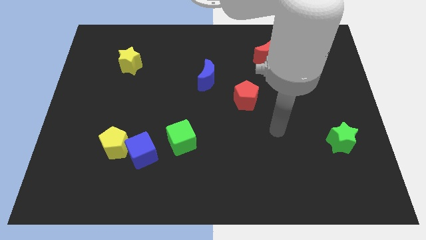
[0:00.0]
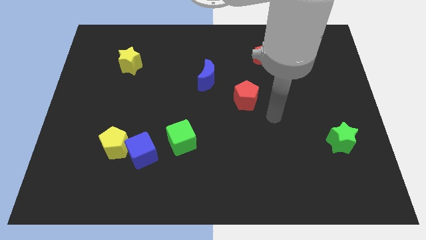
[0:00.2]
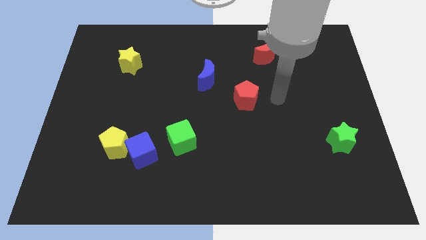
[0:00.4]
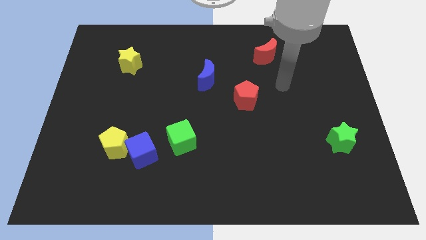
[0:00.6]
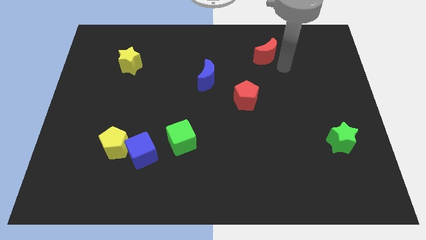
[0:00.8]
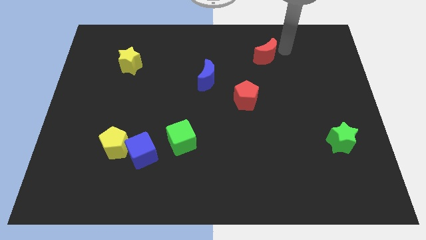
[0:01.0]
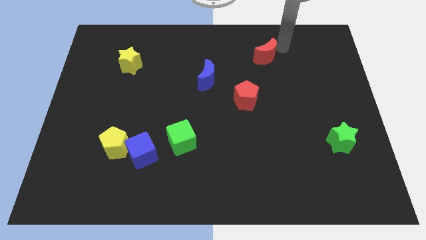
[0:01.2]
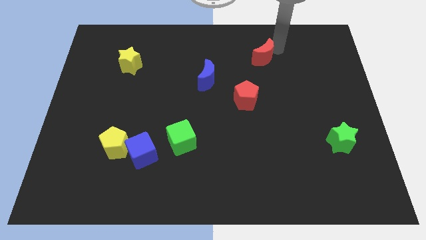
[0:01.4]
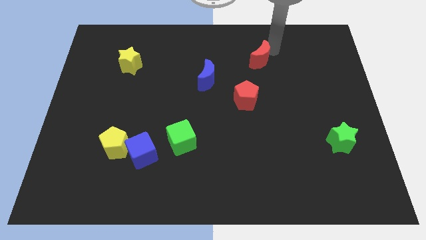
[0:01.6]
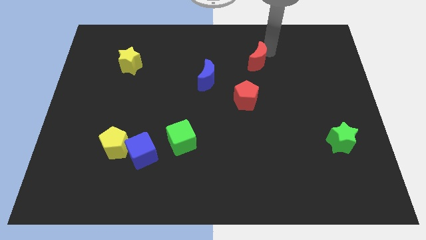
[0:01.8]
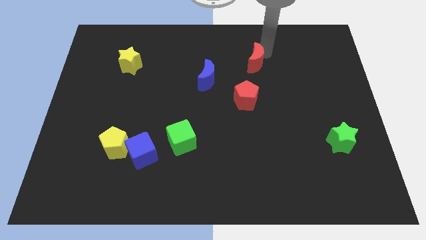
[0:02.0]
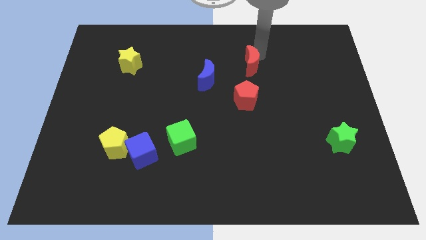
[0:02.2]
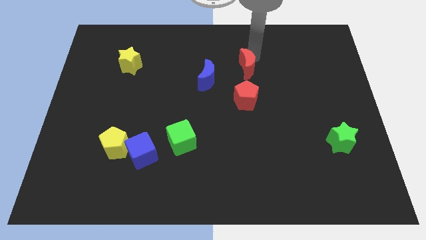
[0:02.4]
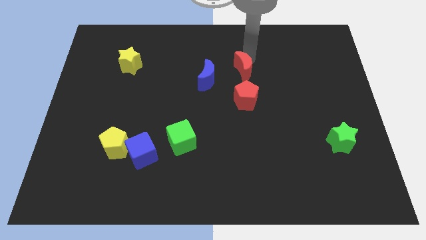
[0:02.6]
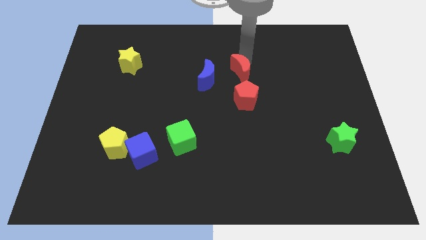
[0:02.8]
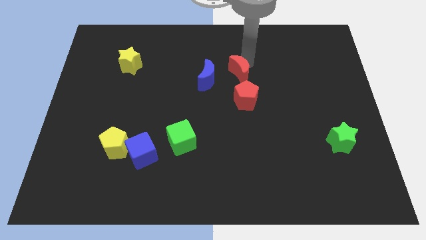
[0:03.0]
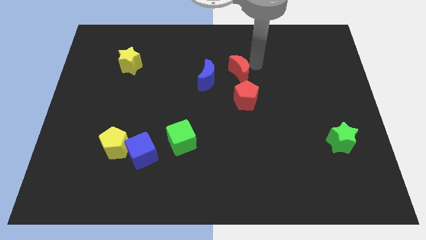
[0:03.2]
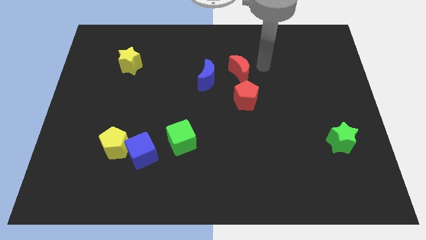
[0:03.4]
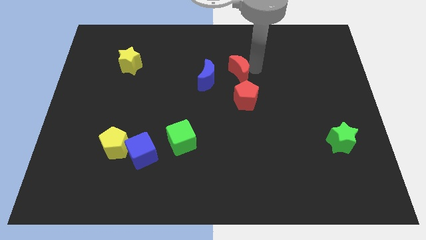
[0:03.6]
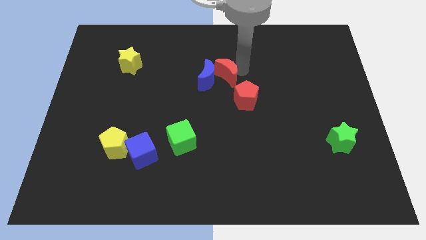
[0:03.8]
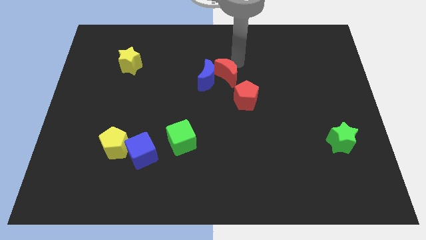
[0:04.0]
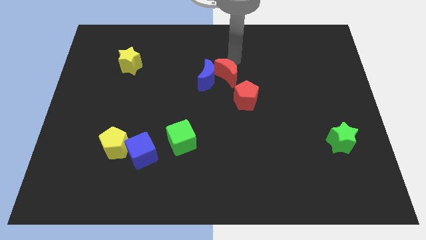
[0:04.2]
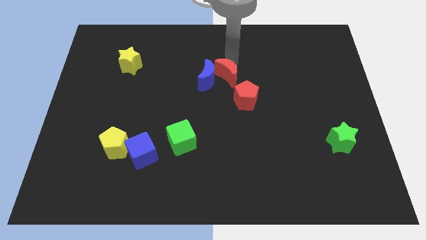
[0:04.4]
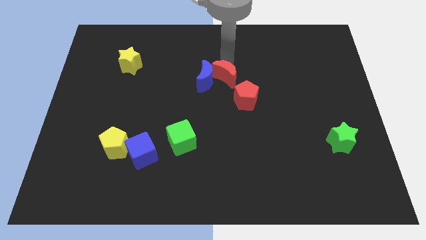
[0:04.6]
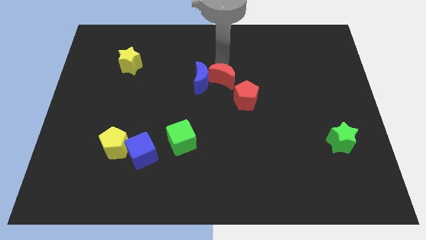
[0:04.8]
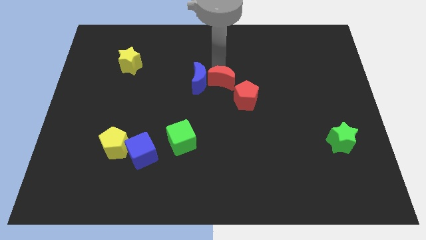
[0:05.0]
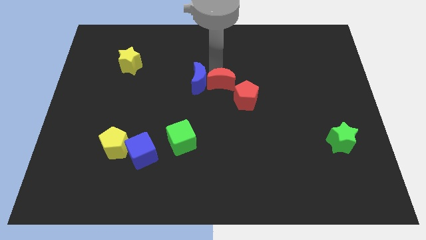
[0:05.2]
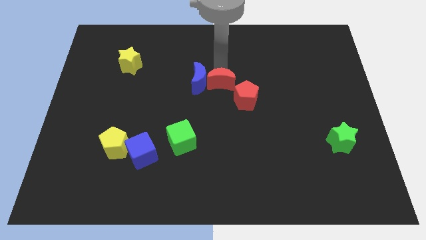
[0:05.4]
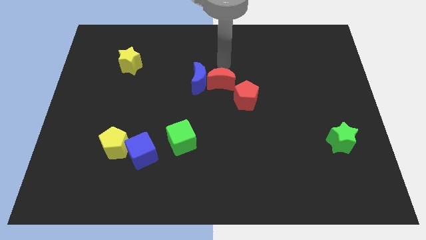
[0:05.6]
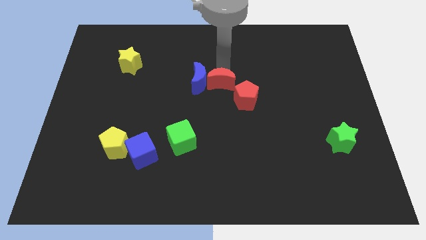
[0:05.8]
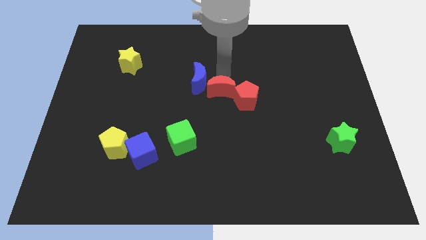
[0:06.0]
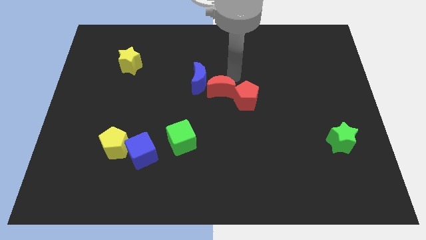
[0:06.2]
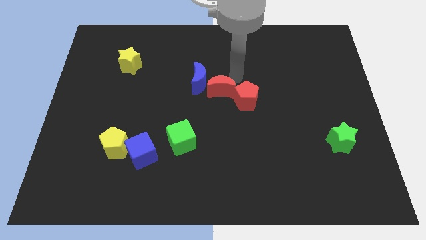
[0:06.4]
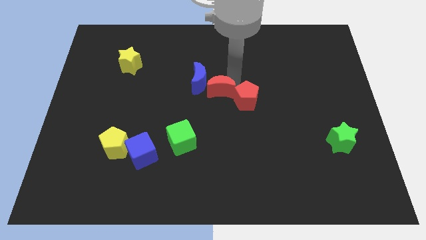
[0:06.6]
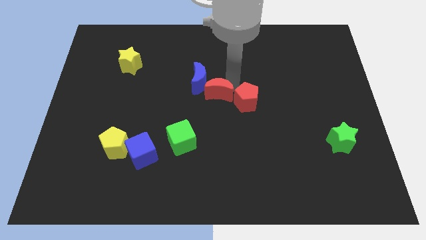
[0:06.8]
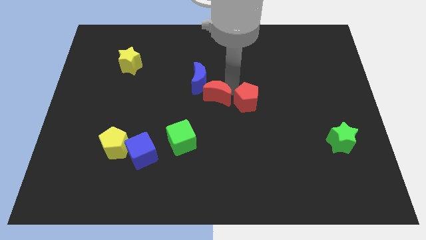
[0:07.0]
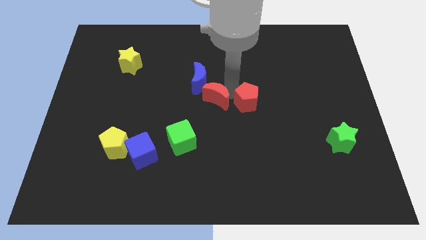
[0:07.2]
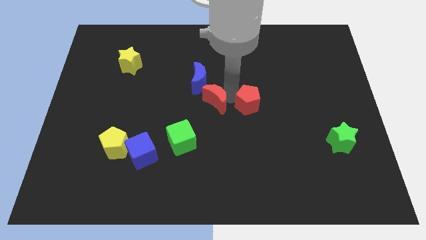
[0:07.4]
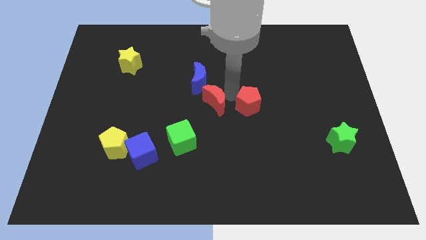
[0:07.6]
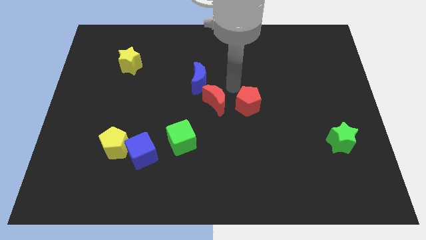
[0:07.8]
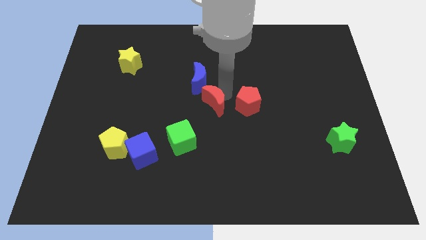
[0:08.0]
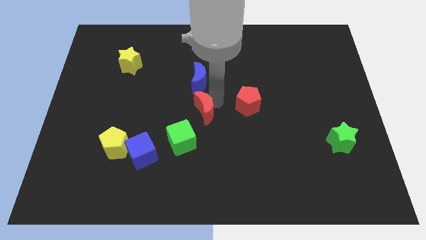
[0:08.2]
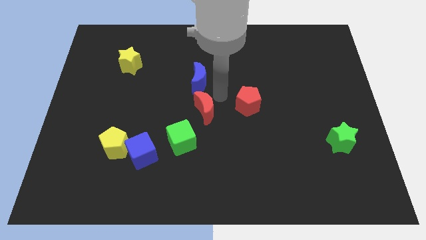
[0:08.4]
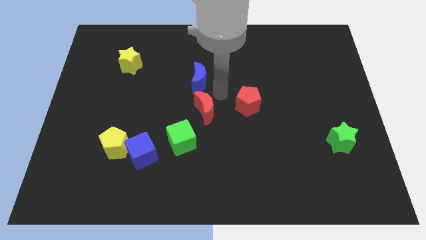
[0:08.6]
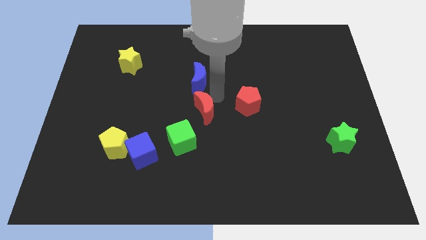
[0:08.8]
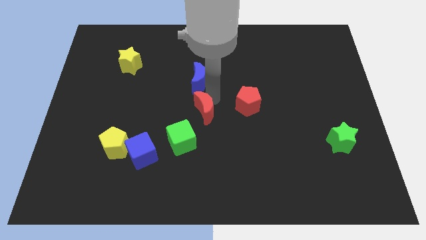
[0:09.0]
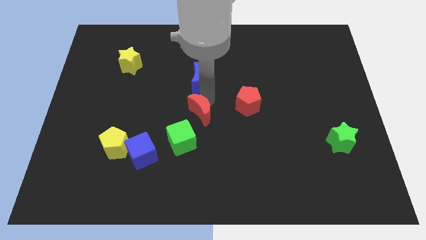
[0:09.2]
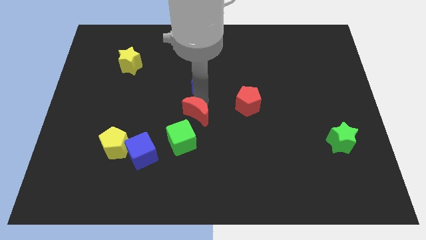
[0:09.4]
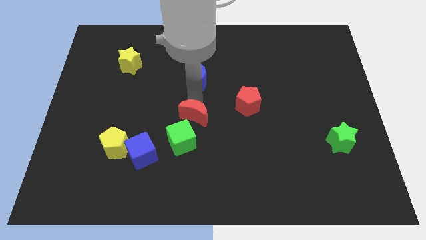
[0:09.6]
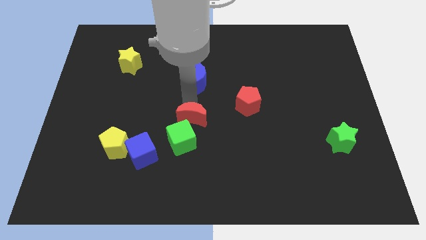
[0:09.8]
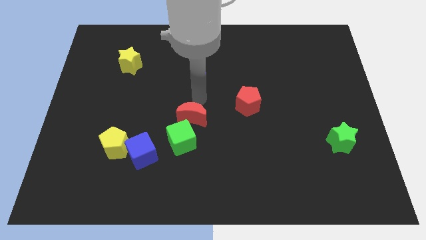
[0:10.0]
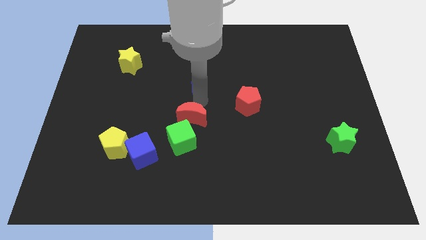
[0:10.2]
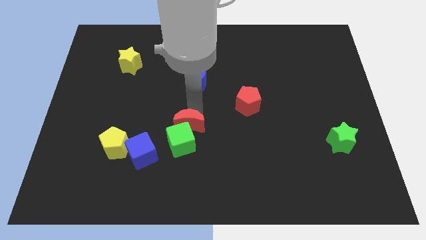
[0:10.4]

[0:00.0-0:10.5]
push the red moon next to the green cube

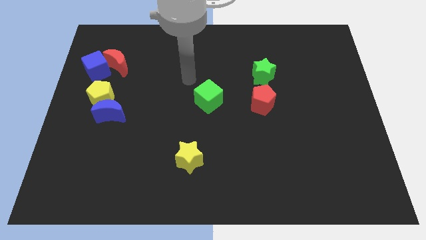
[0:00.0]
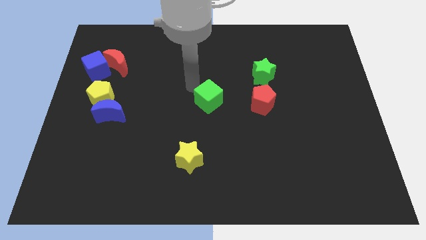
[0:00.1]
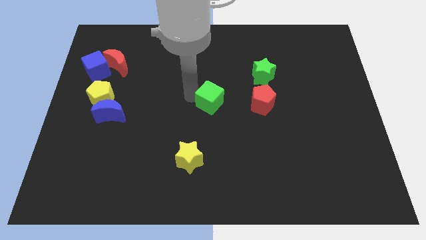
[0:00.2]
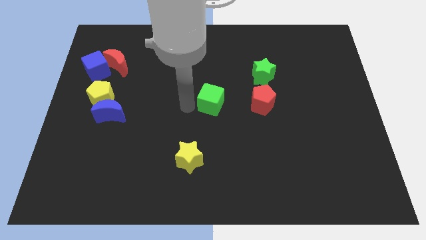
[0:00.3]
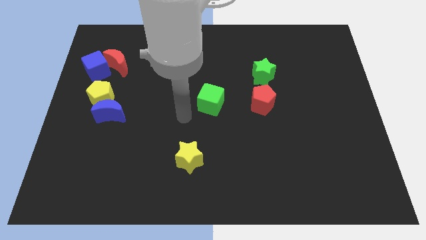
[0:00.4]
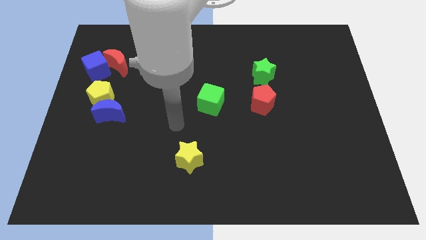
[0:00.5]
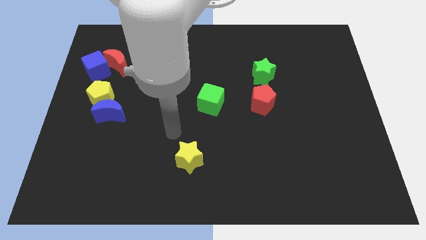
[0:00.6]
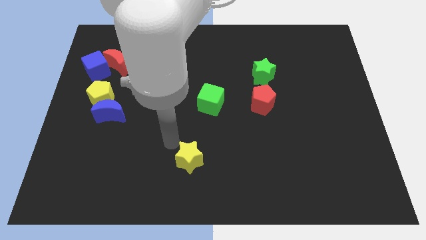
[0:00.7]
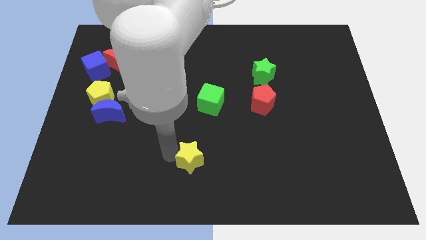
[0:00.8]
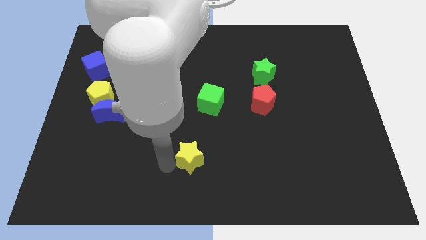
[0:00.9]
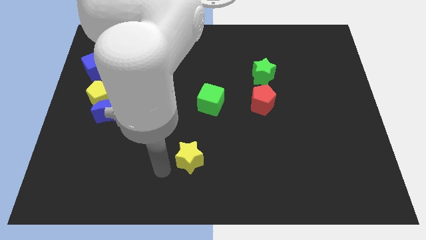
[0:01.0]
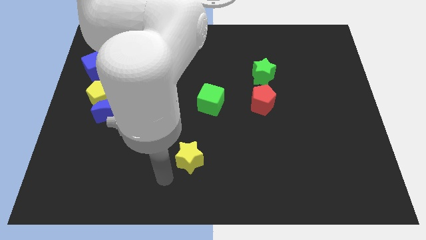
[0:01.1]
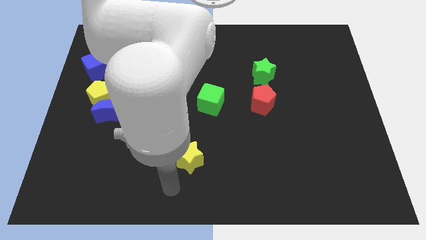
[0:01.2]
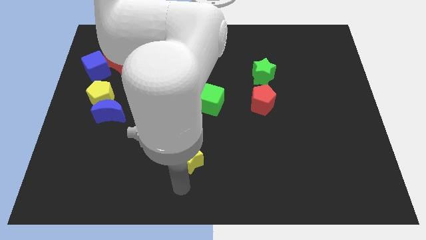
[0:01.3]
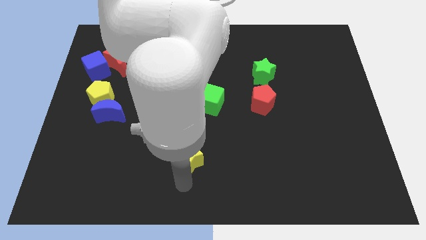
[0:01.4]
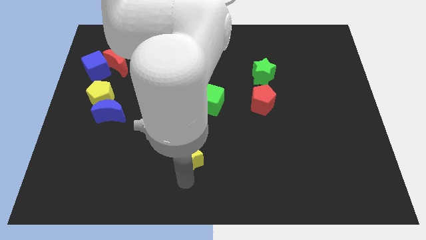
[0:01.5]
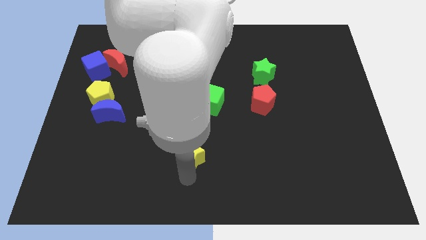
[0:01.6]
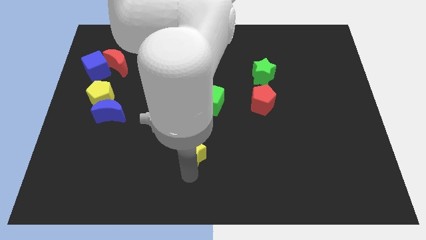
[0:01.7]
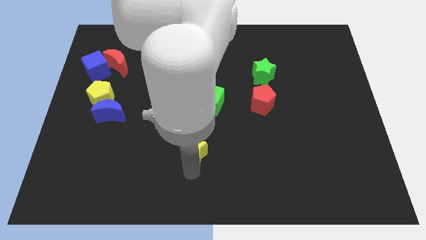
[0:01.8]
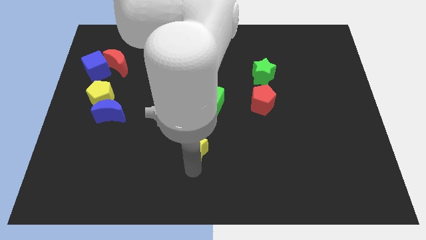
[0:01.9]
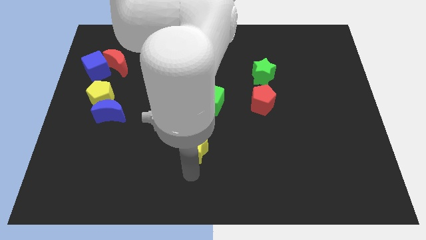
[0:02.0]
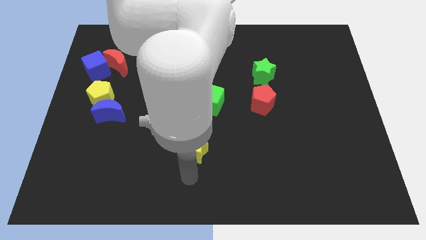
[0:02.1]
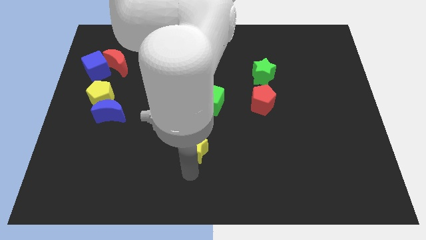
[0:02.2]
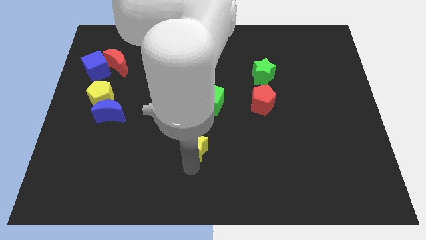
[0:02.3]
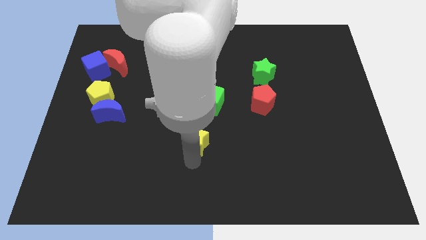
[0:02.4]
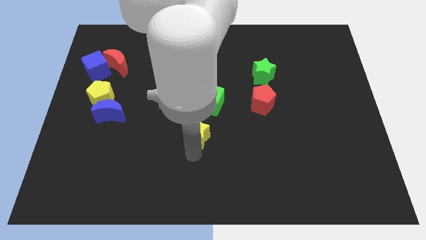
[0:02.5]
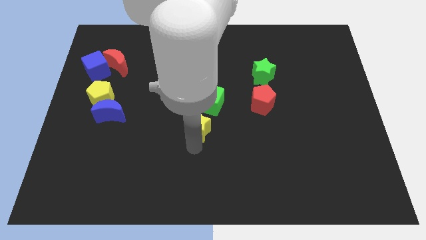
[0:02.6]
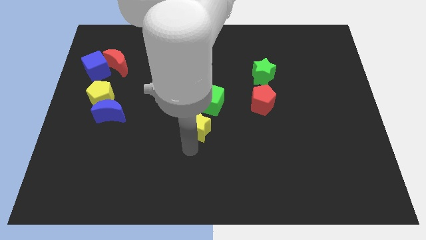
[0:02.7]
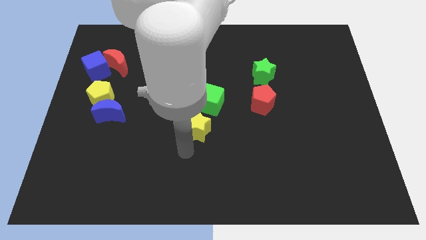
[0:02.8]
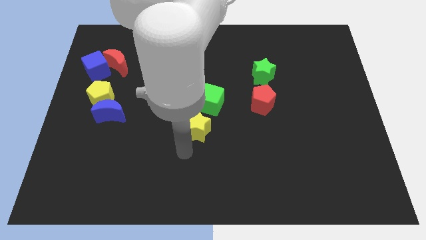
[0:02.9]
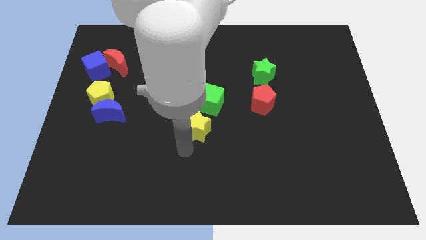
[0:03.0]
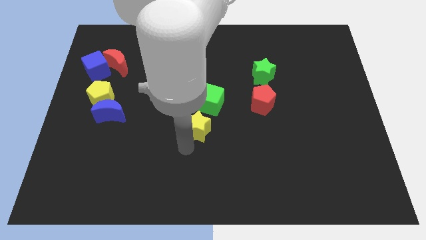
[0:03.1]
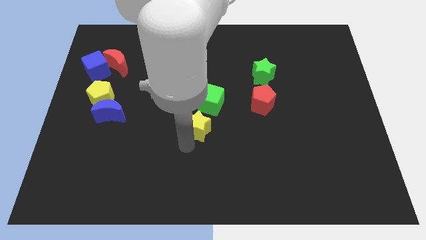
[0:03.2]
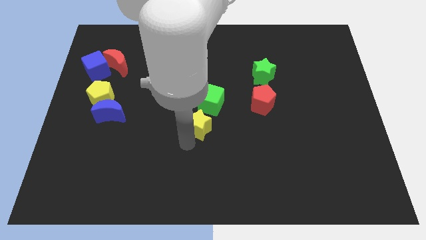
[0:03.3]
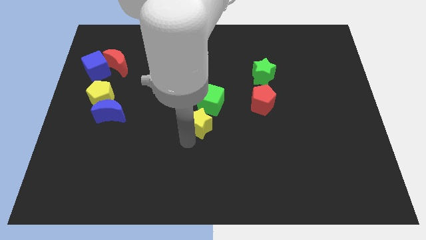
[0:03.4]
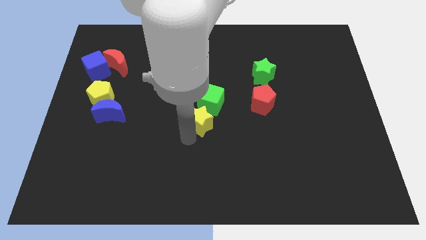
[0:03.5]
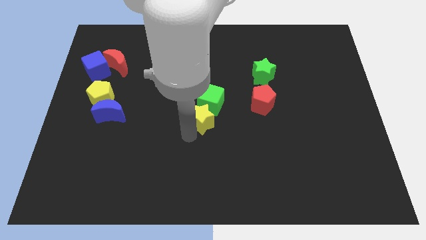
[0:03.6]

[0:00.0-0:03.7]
slide the yellow star towards the green cube
